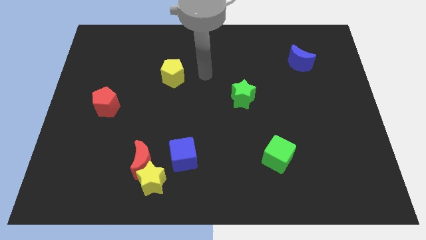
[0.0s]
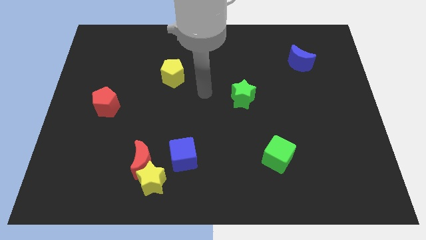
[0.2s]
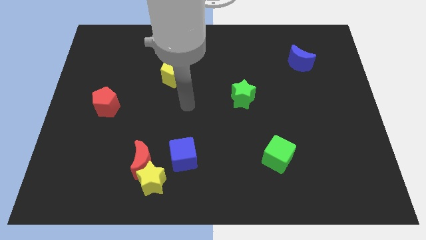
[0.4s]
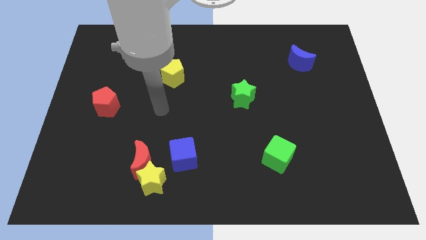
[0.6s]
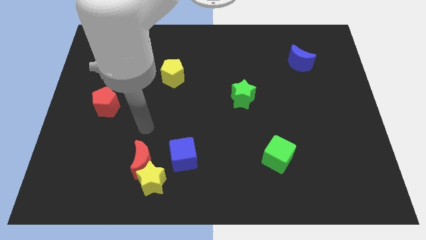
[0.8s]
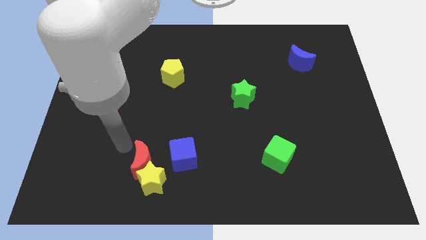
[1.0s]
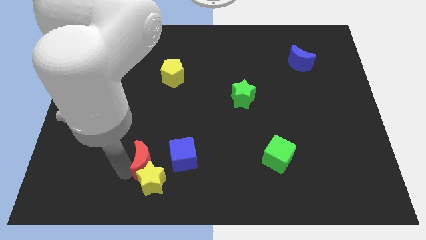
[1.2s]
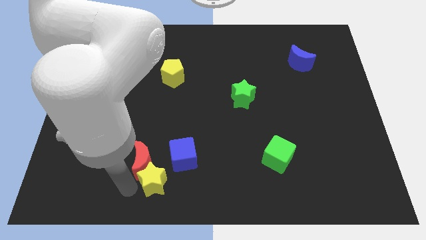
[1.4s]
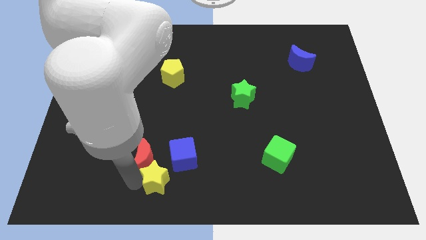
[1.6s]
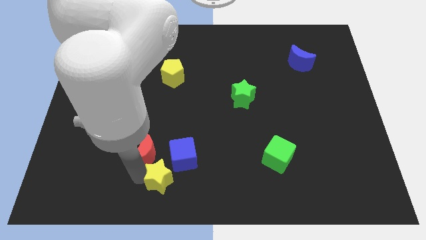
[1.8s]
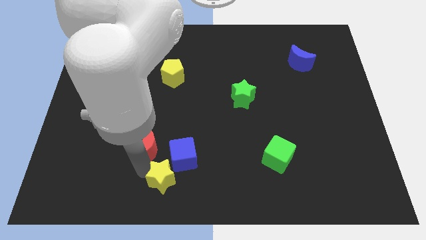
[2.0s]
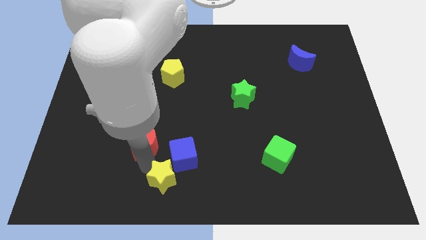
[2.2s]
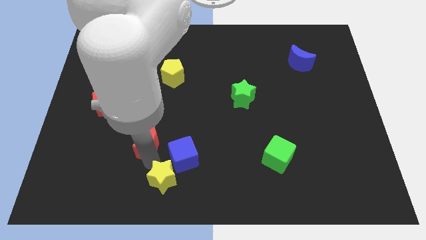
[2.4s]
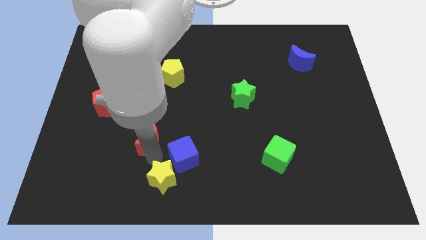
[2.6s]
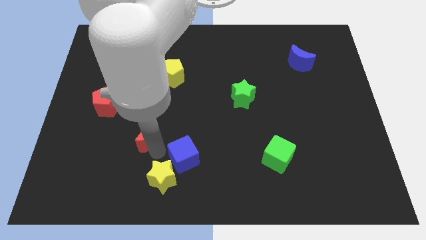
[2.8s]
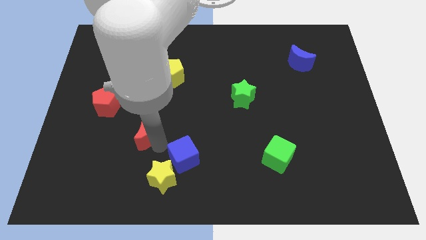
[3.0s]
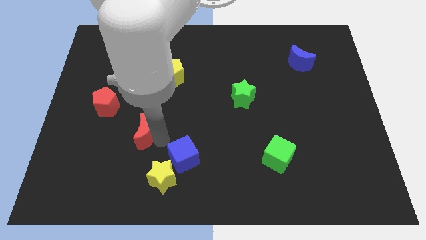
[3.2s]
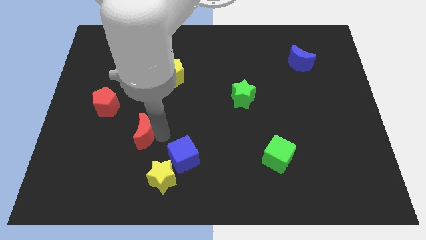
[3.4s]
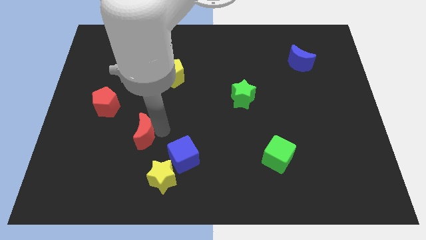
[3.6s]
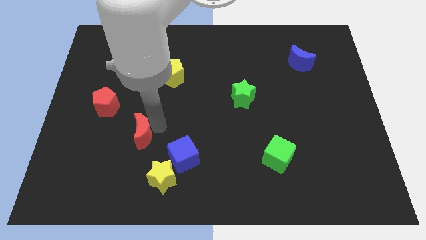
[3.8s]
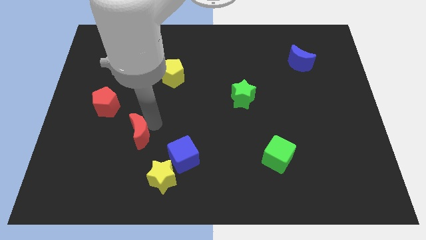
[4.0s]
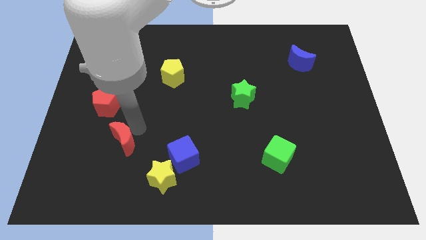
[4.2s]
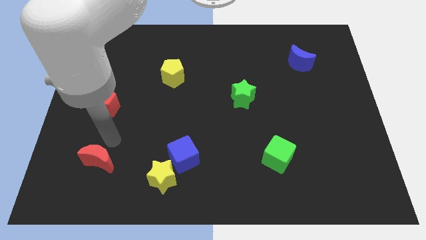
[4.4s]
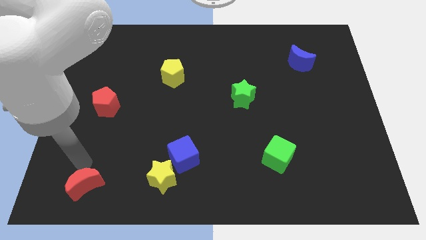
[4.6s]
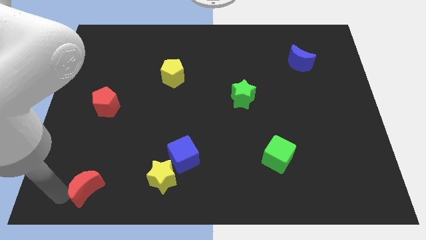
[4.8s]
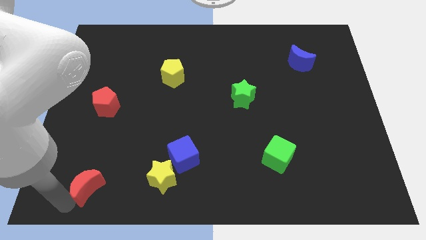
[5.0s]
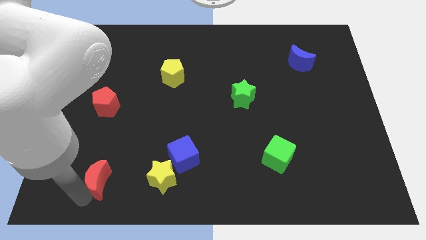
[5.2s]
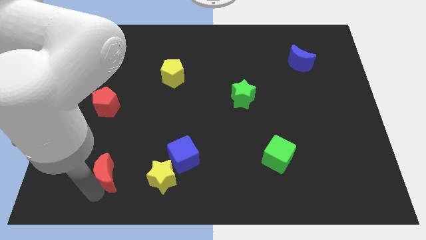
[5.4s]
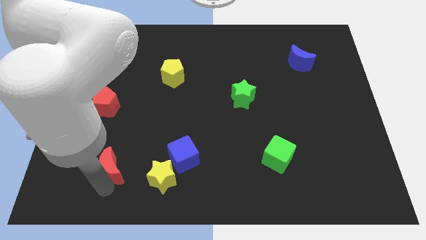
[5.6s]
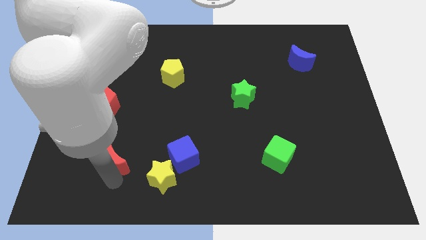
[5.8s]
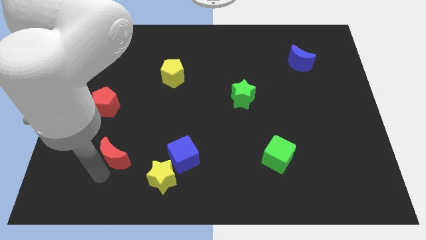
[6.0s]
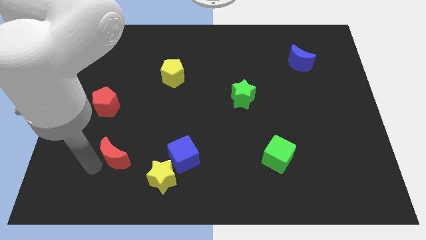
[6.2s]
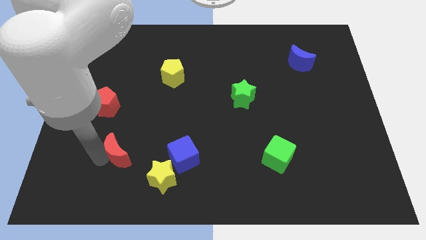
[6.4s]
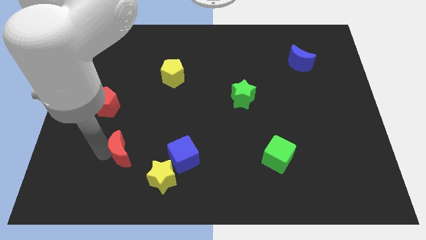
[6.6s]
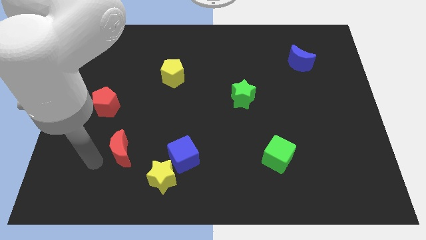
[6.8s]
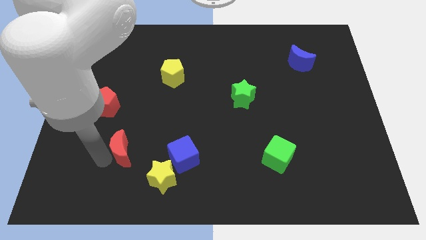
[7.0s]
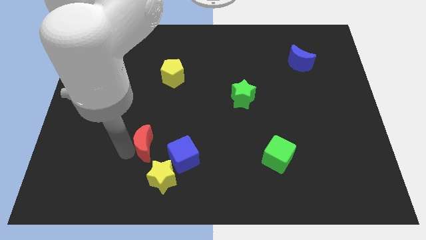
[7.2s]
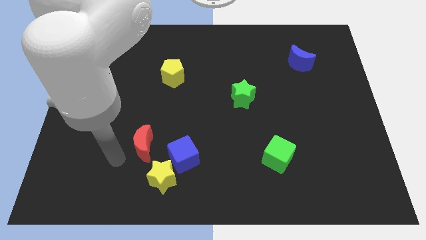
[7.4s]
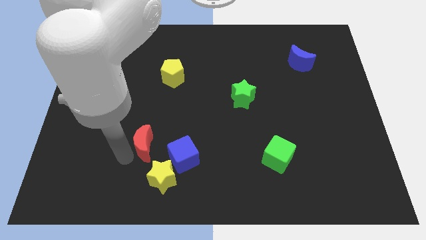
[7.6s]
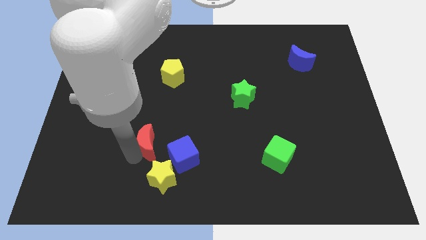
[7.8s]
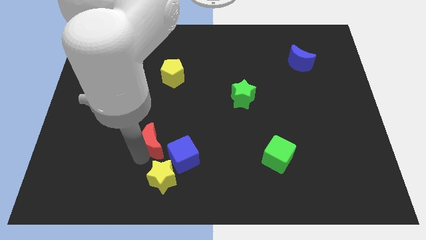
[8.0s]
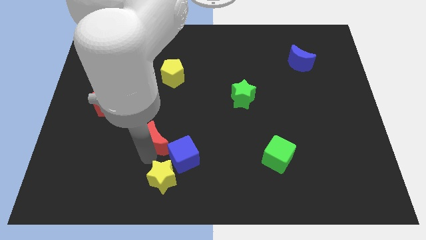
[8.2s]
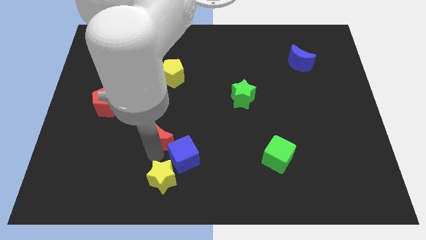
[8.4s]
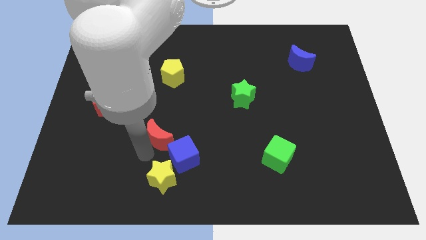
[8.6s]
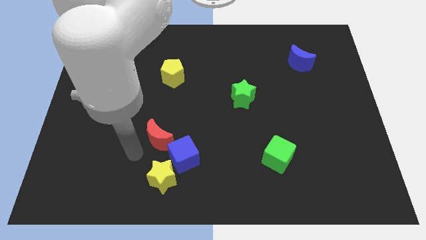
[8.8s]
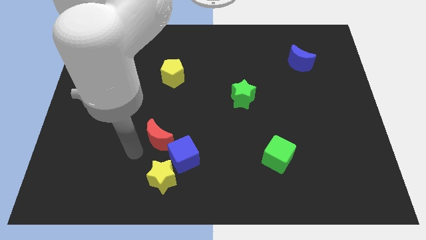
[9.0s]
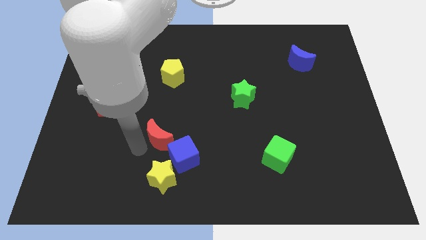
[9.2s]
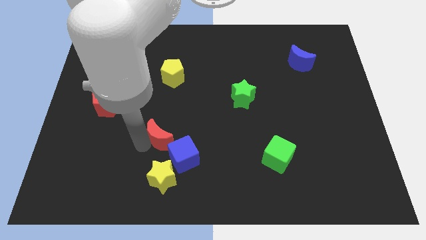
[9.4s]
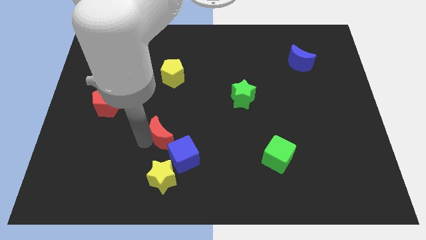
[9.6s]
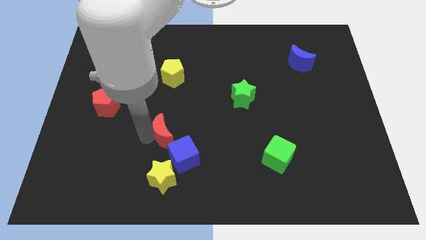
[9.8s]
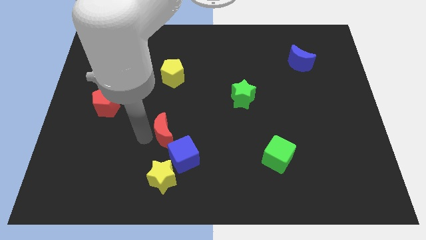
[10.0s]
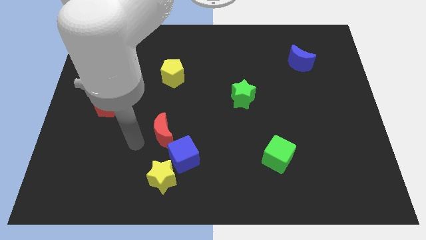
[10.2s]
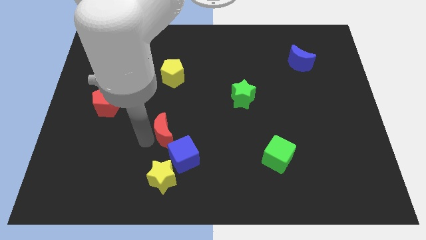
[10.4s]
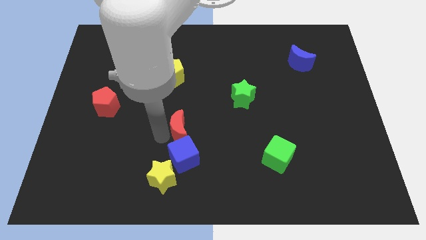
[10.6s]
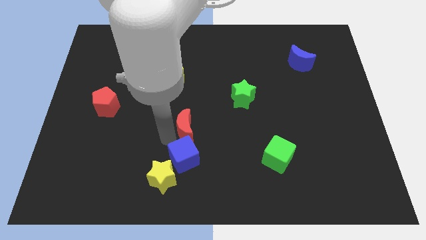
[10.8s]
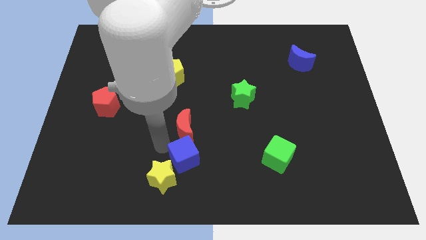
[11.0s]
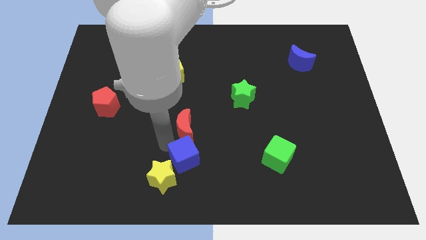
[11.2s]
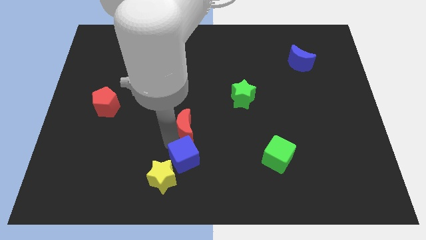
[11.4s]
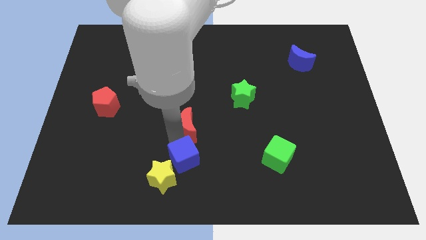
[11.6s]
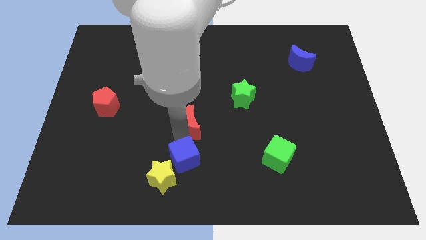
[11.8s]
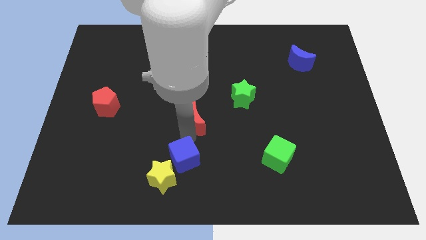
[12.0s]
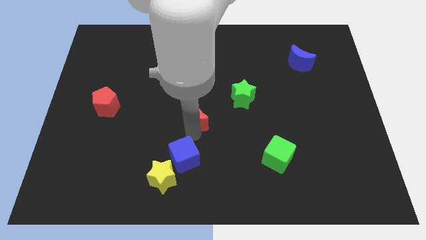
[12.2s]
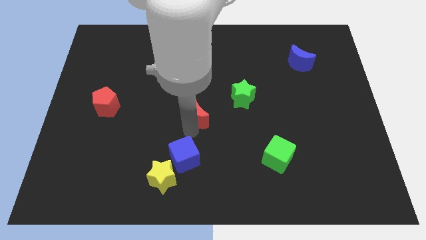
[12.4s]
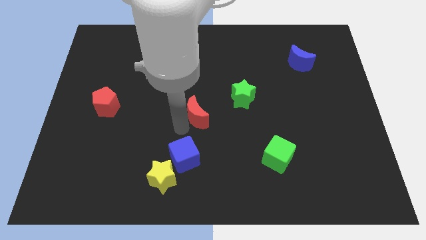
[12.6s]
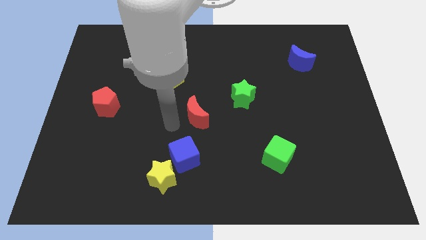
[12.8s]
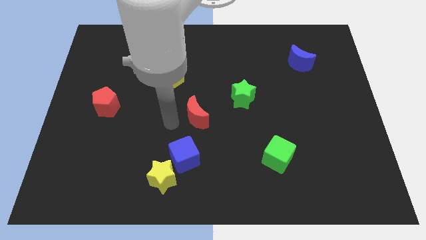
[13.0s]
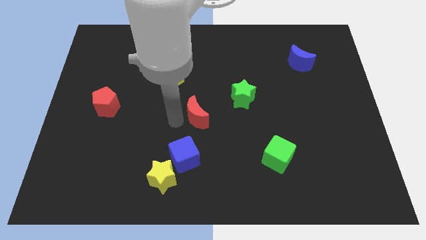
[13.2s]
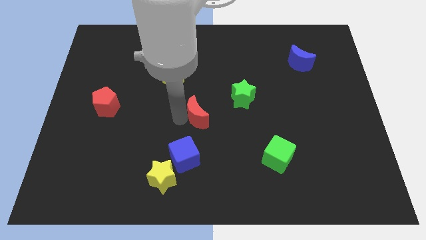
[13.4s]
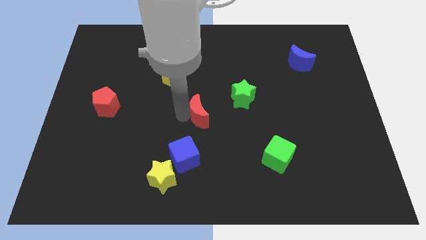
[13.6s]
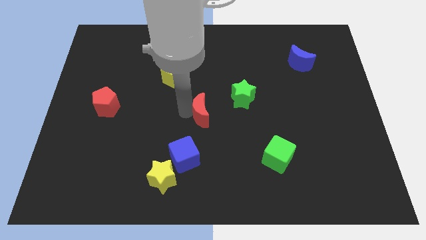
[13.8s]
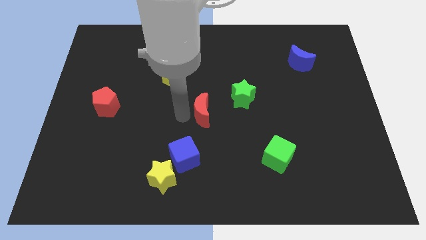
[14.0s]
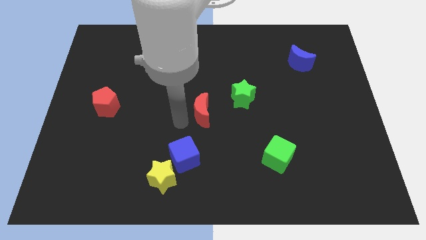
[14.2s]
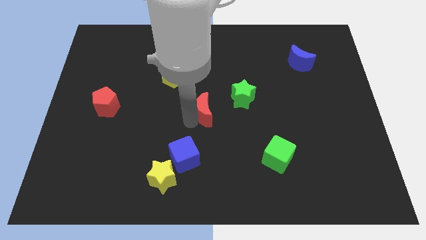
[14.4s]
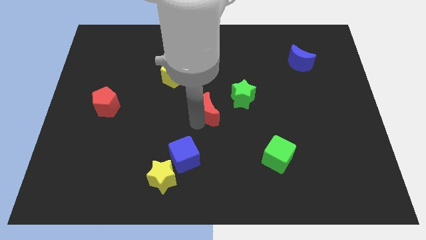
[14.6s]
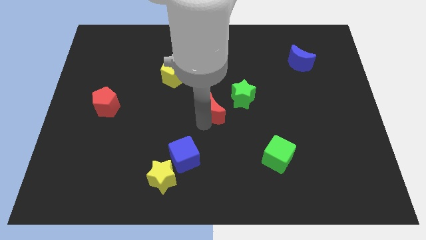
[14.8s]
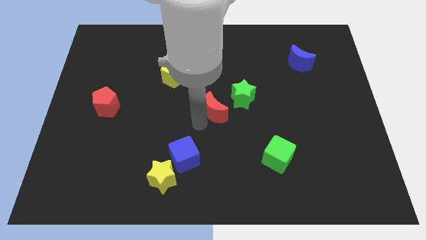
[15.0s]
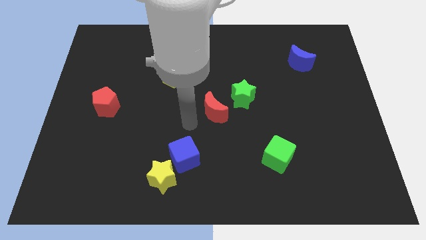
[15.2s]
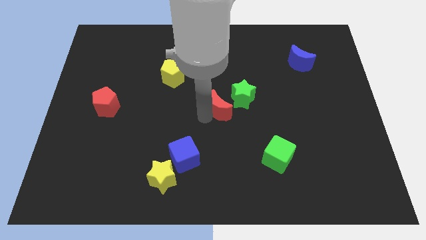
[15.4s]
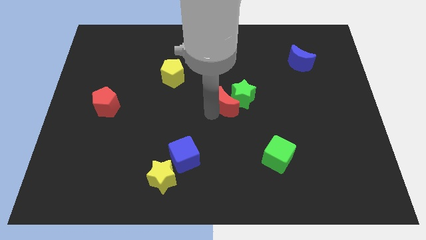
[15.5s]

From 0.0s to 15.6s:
put the red moon close to the green star
